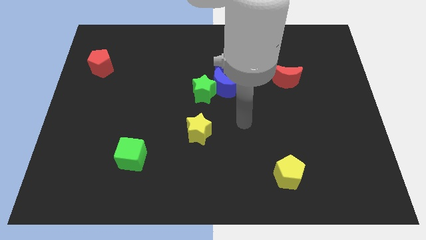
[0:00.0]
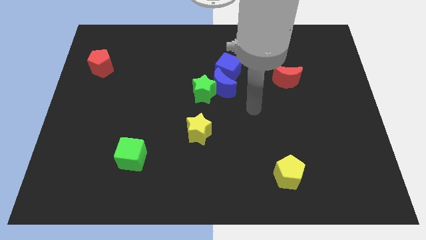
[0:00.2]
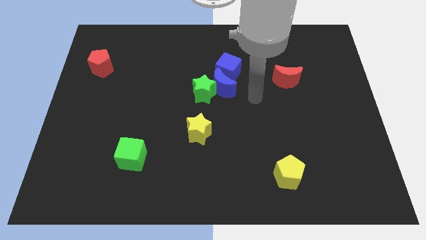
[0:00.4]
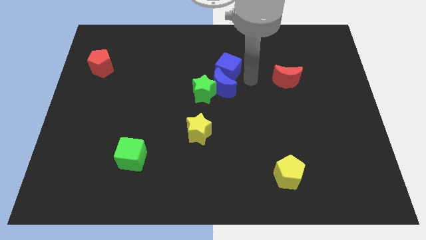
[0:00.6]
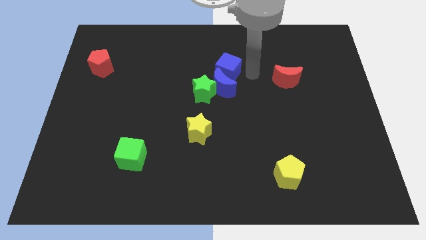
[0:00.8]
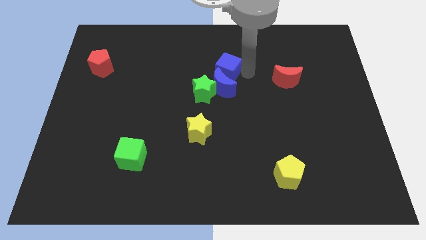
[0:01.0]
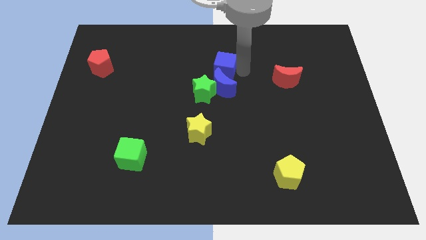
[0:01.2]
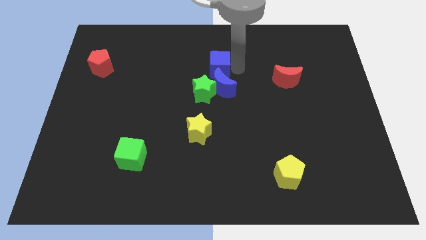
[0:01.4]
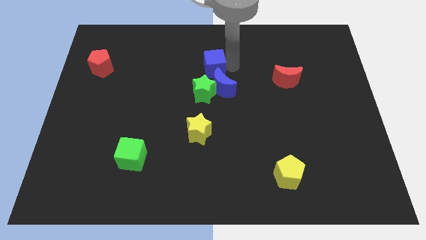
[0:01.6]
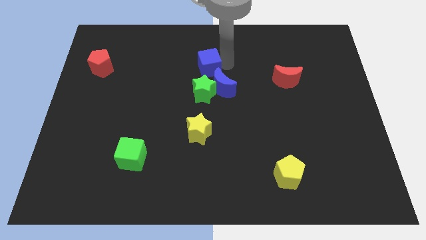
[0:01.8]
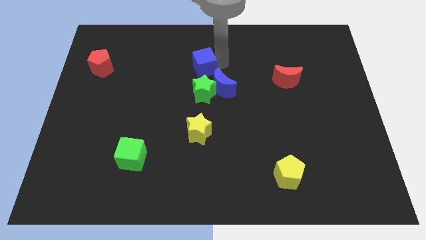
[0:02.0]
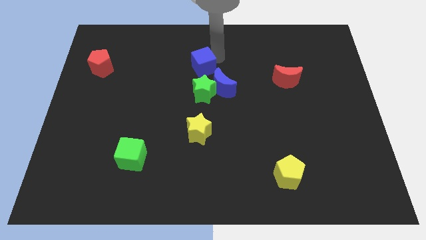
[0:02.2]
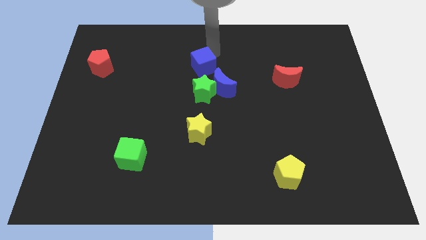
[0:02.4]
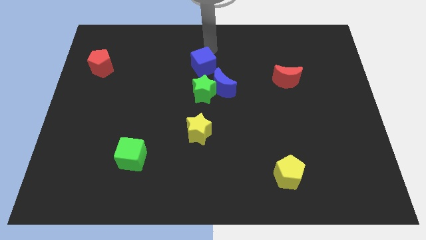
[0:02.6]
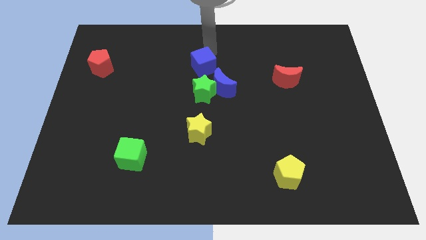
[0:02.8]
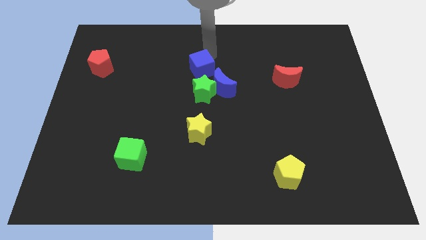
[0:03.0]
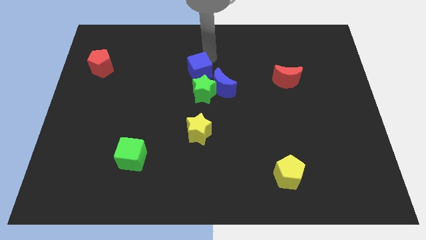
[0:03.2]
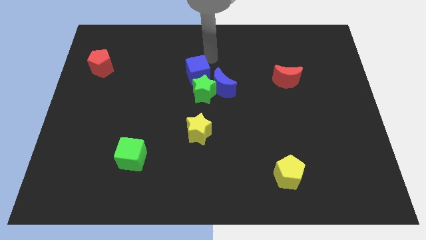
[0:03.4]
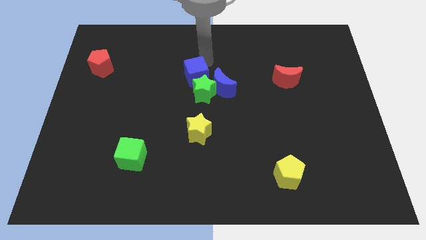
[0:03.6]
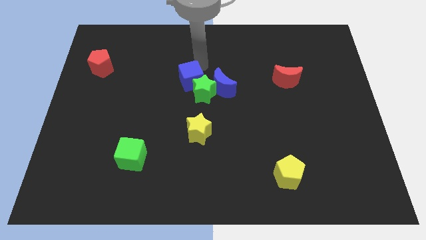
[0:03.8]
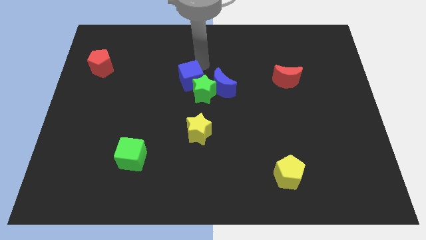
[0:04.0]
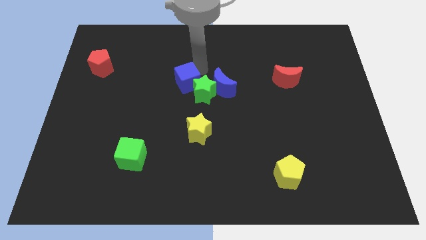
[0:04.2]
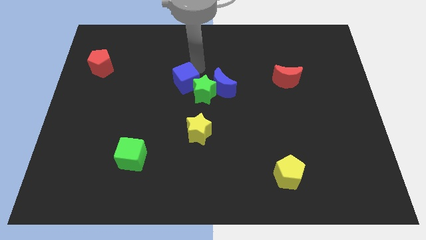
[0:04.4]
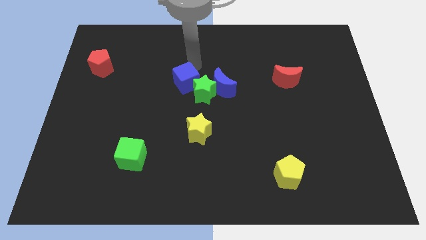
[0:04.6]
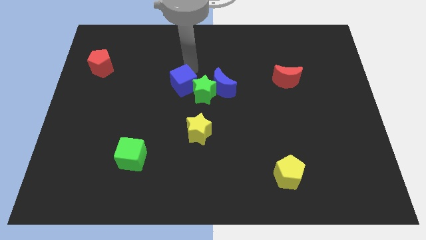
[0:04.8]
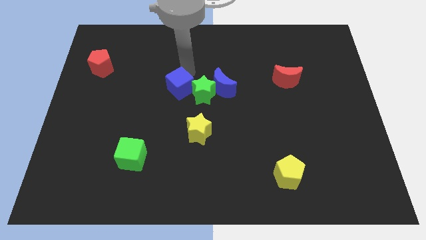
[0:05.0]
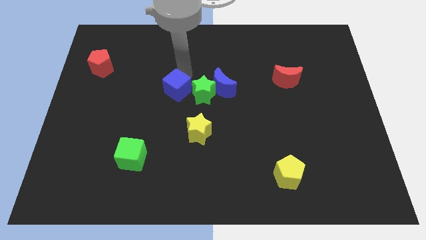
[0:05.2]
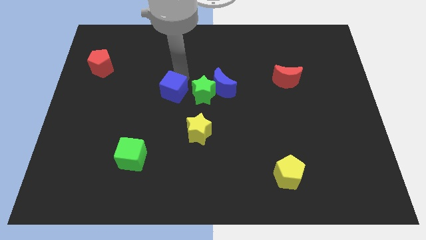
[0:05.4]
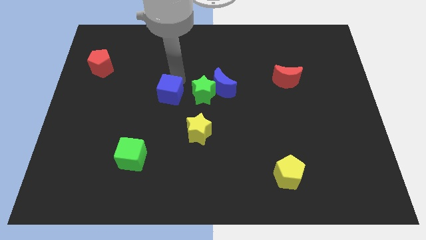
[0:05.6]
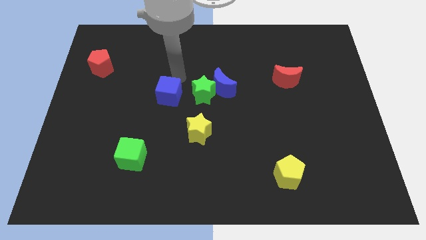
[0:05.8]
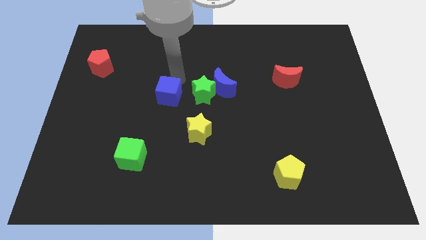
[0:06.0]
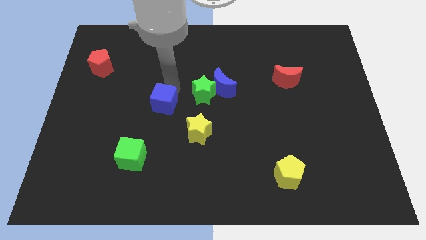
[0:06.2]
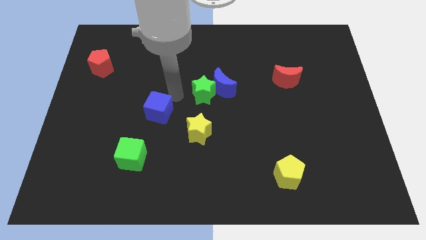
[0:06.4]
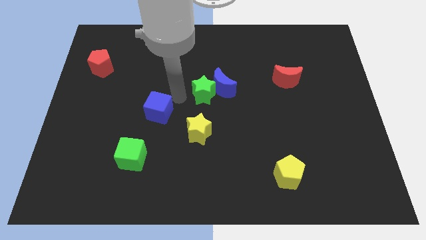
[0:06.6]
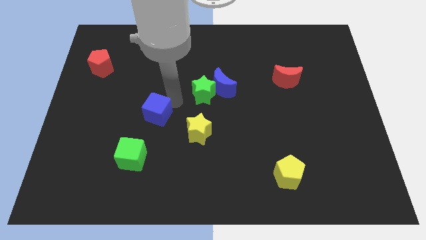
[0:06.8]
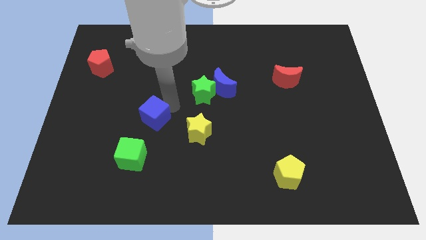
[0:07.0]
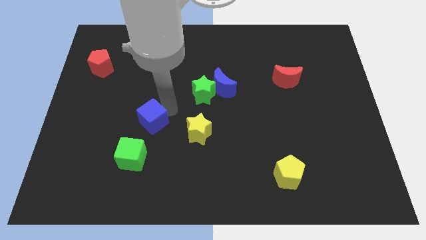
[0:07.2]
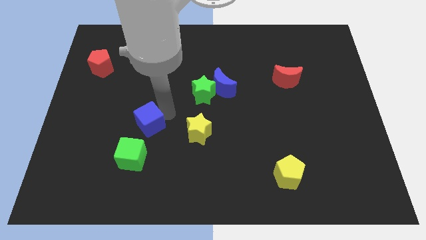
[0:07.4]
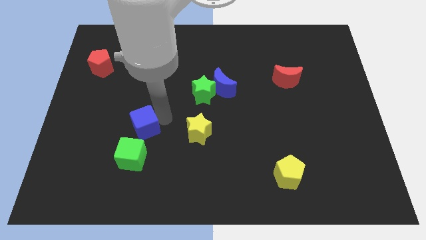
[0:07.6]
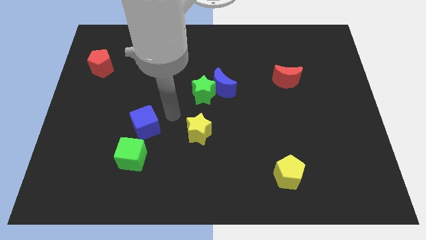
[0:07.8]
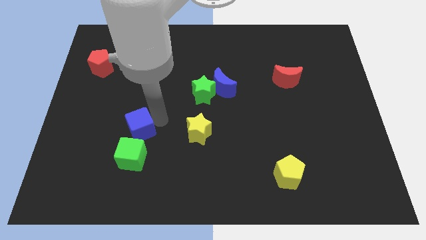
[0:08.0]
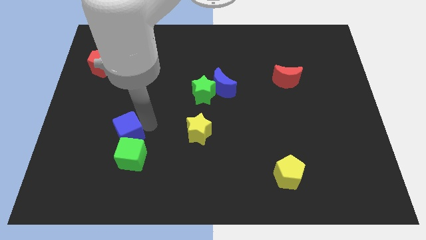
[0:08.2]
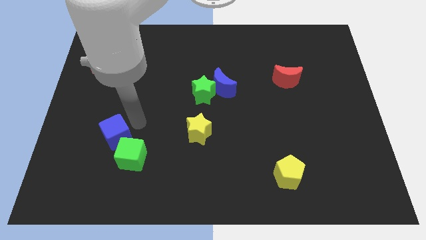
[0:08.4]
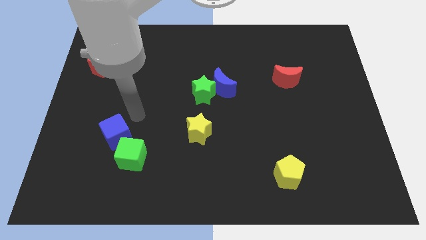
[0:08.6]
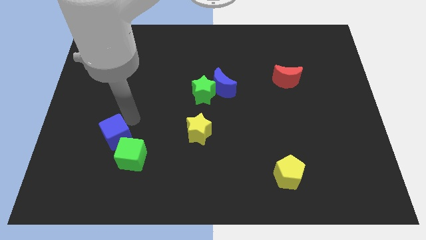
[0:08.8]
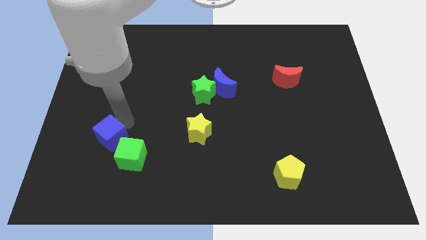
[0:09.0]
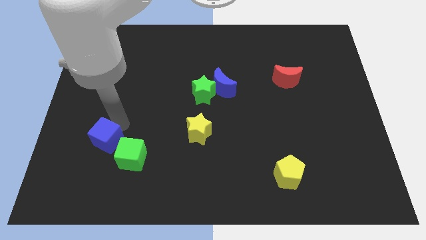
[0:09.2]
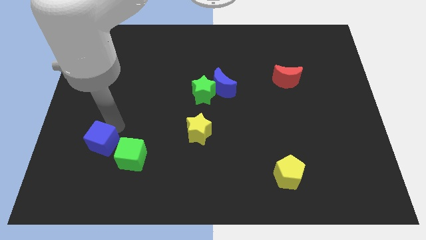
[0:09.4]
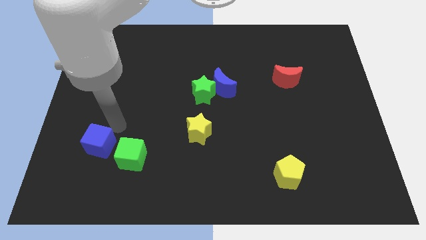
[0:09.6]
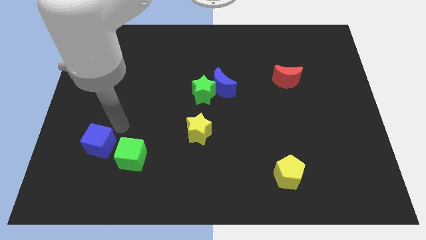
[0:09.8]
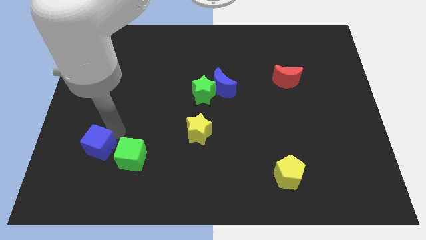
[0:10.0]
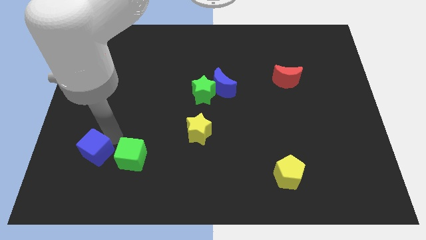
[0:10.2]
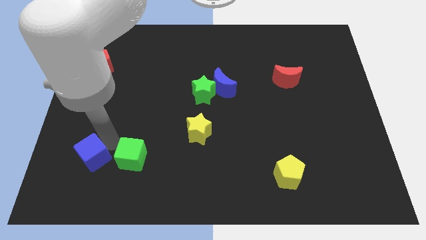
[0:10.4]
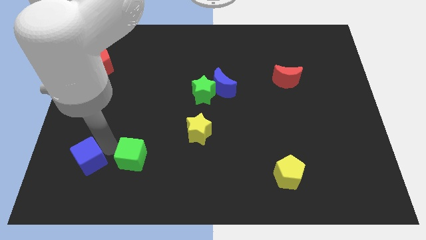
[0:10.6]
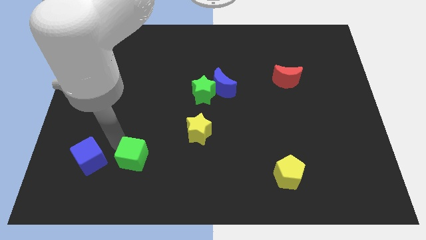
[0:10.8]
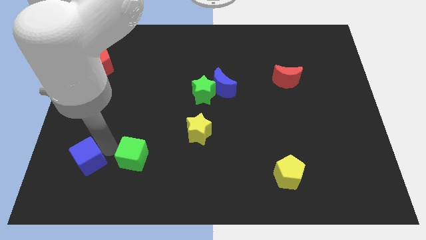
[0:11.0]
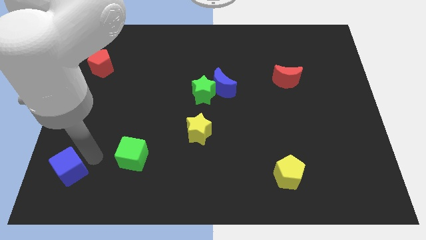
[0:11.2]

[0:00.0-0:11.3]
slide the blue cube to the bottom left of the board
